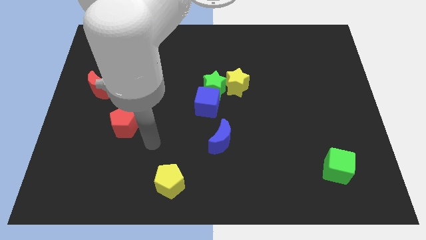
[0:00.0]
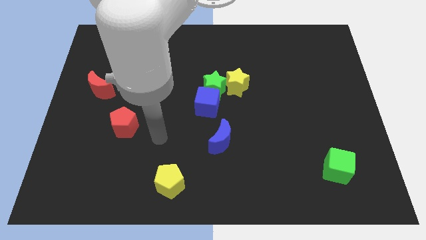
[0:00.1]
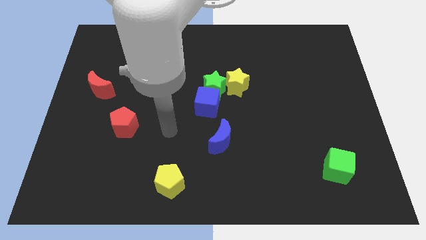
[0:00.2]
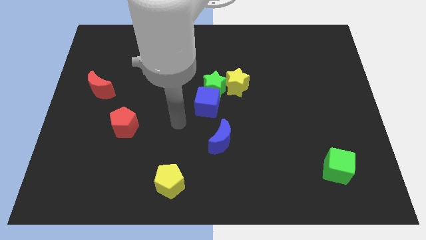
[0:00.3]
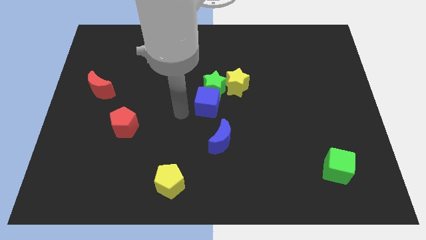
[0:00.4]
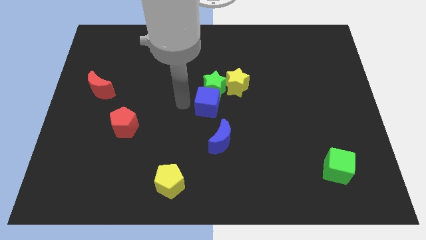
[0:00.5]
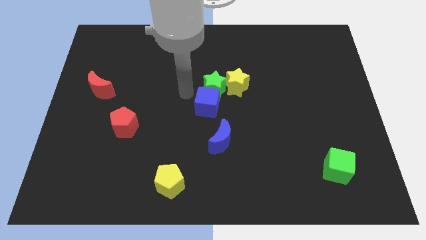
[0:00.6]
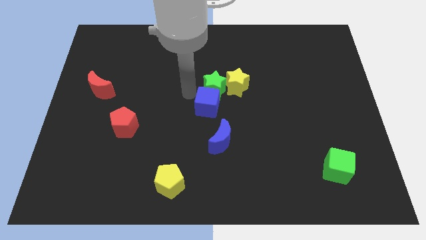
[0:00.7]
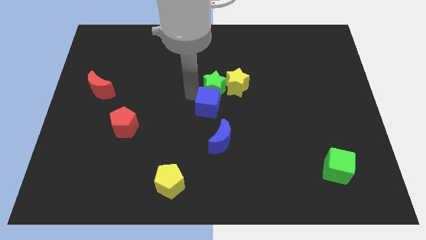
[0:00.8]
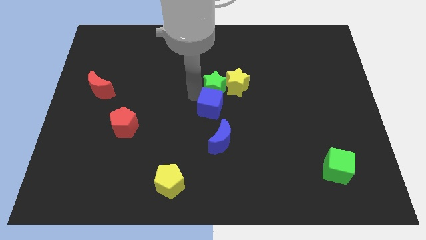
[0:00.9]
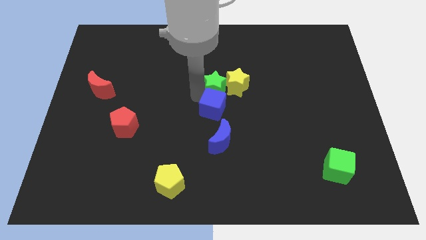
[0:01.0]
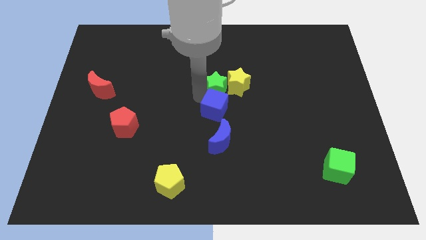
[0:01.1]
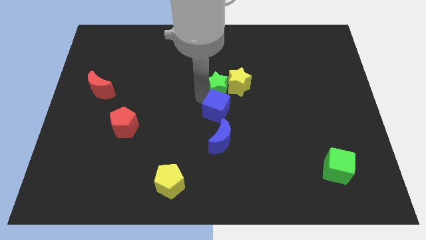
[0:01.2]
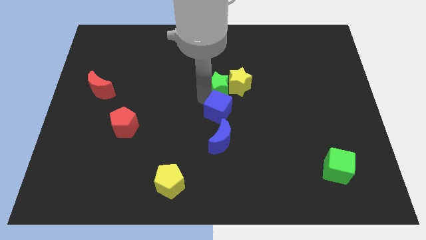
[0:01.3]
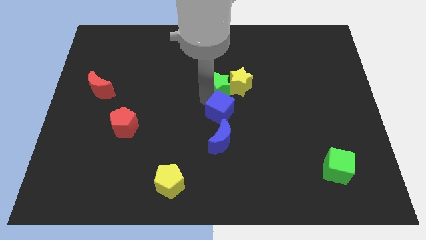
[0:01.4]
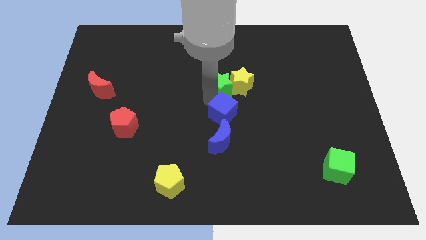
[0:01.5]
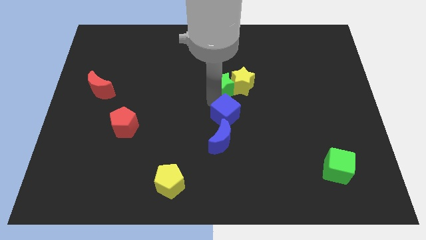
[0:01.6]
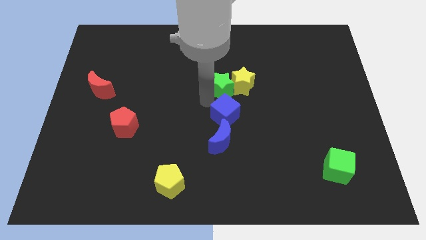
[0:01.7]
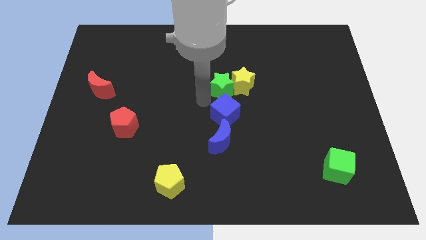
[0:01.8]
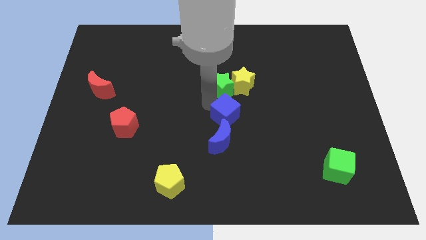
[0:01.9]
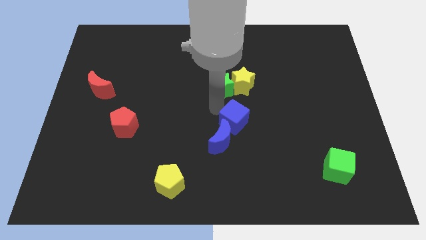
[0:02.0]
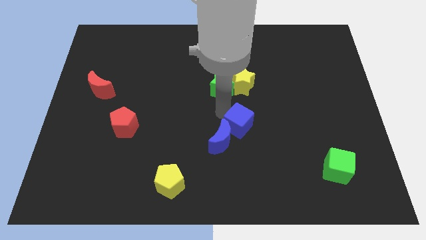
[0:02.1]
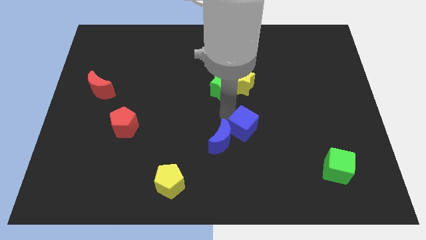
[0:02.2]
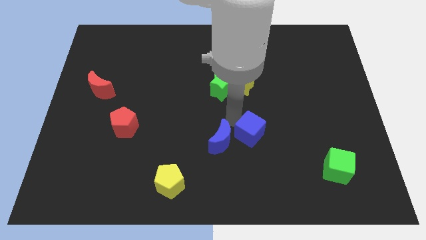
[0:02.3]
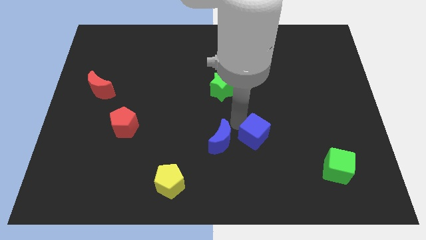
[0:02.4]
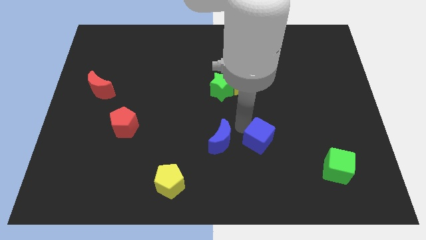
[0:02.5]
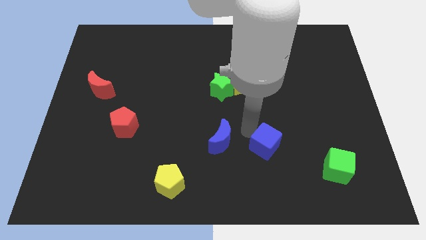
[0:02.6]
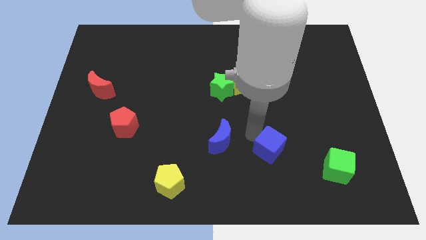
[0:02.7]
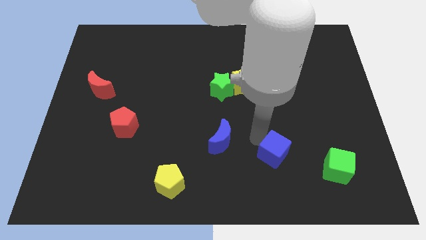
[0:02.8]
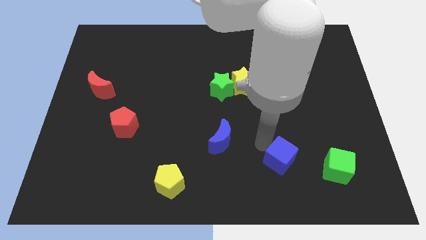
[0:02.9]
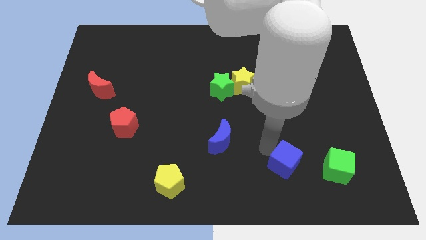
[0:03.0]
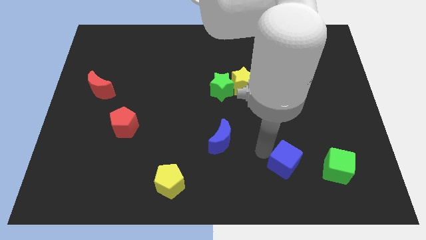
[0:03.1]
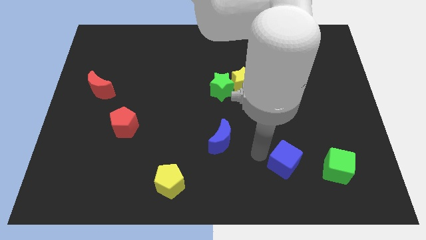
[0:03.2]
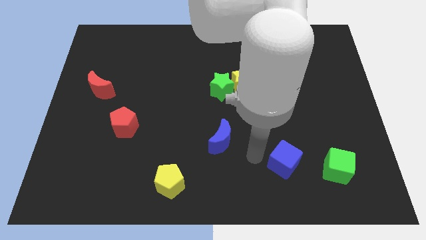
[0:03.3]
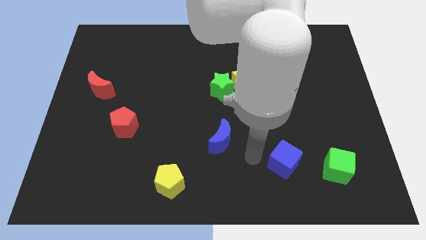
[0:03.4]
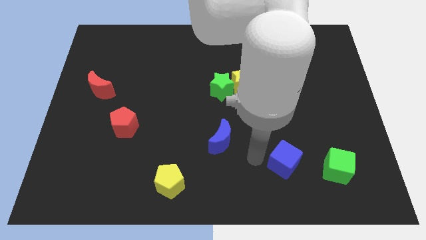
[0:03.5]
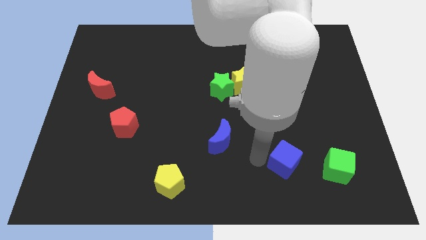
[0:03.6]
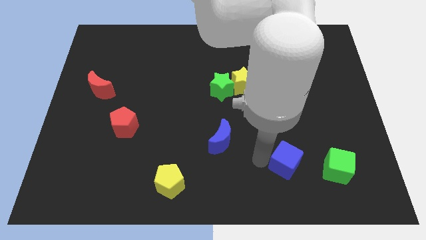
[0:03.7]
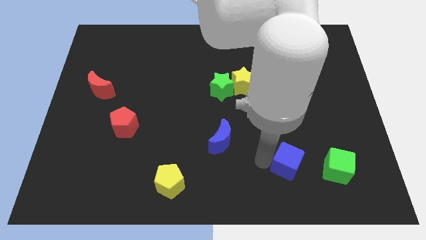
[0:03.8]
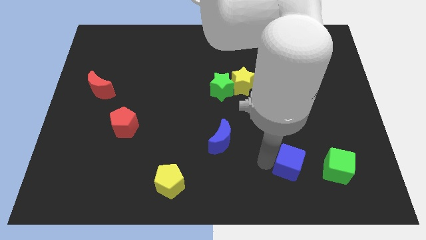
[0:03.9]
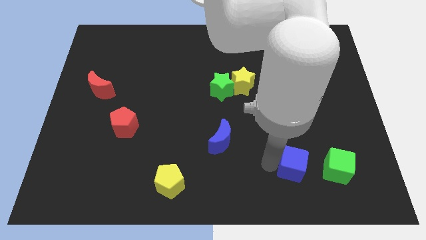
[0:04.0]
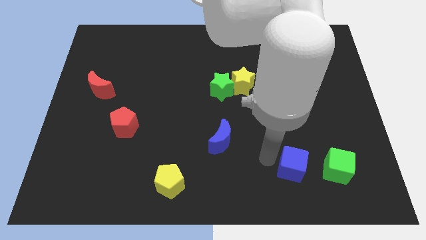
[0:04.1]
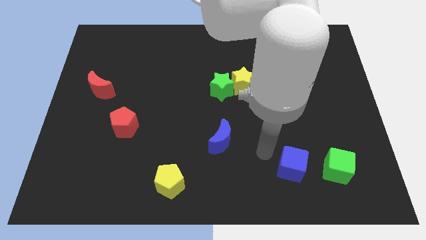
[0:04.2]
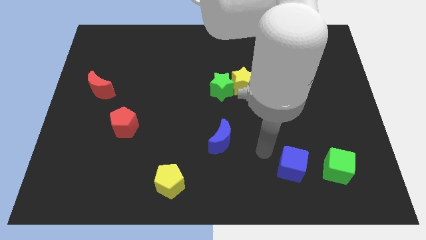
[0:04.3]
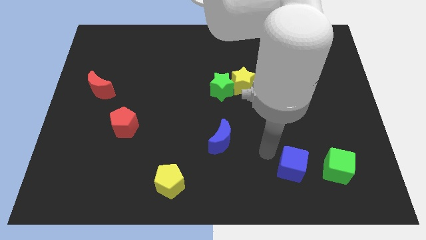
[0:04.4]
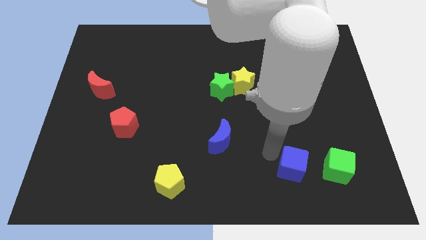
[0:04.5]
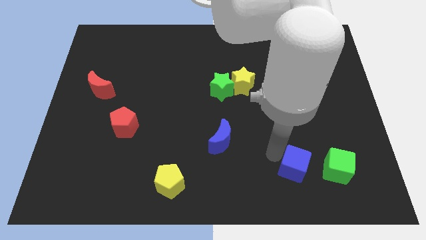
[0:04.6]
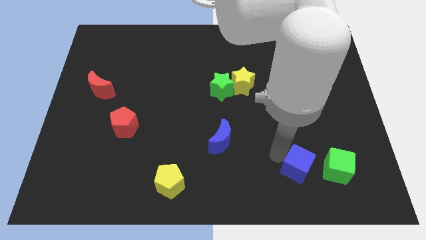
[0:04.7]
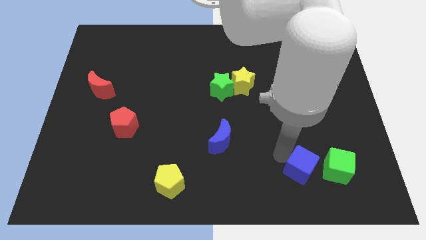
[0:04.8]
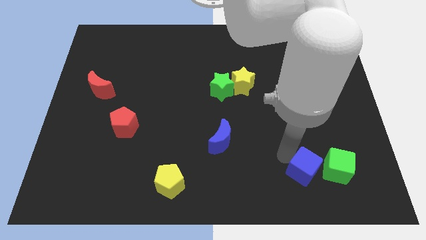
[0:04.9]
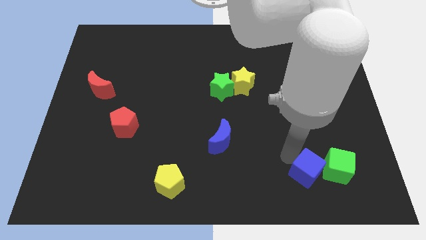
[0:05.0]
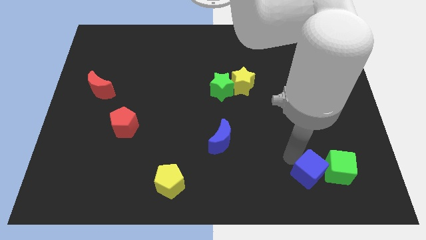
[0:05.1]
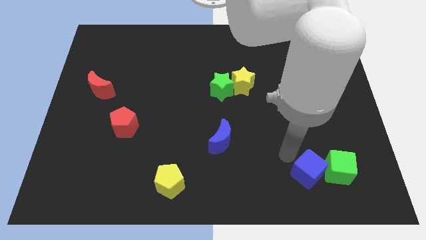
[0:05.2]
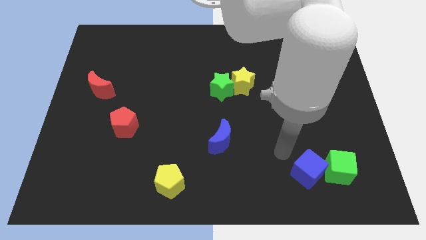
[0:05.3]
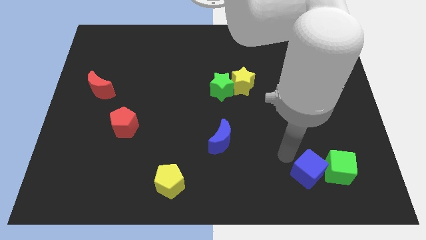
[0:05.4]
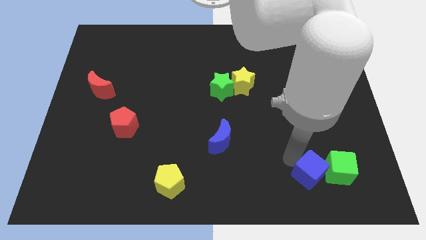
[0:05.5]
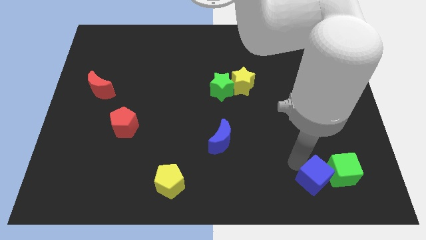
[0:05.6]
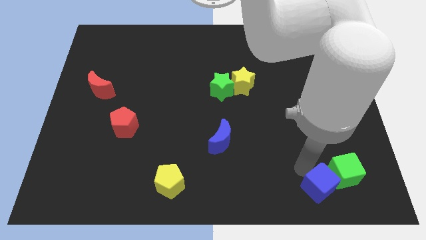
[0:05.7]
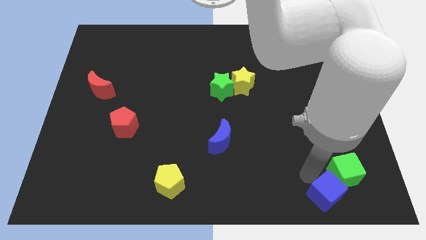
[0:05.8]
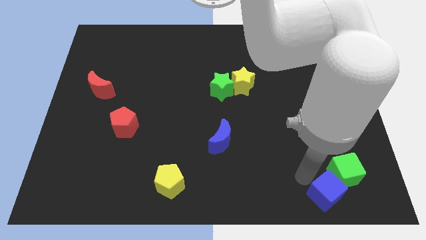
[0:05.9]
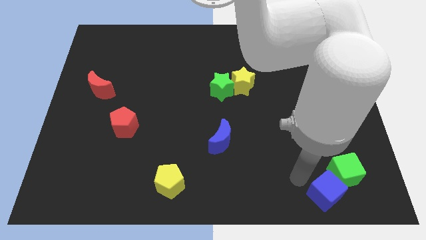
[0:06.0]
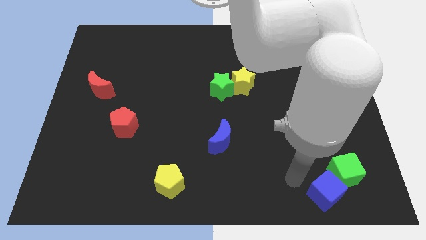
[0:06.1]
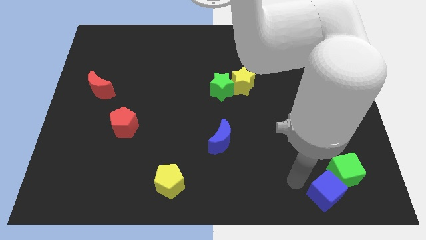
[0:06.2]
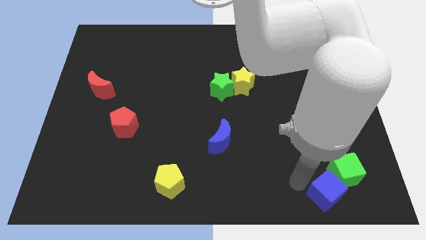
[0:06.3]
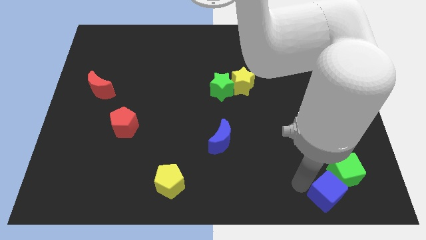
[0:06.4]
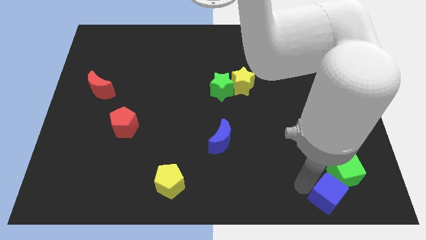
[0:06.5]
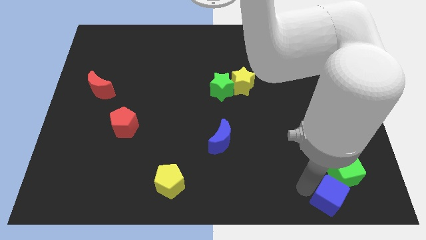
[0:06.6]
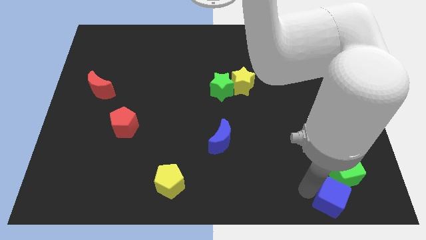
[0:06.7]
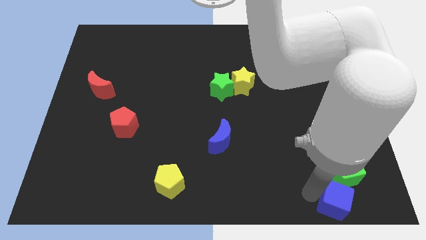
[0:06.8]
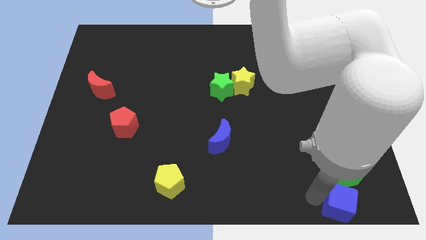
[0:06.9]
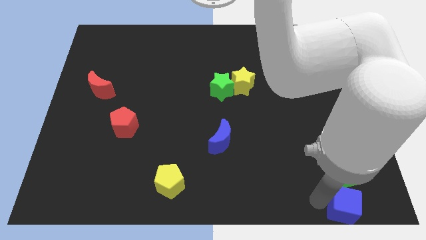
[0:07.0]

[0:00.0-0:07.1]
slide the blue cube to the bottom right of the board
